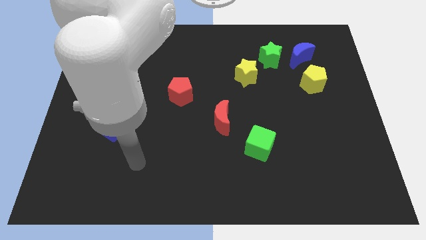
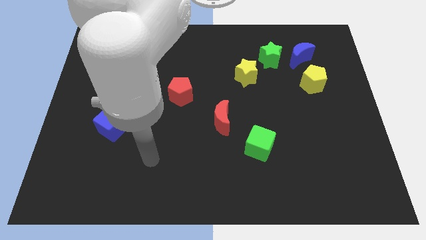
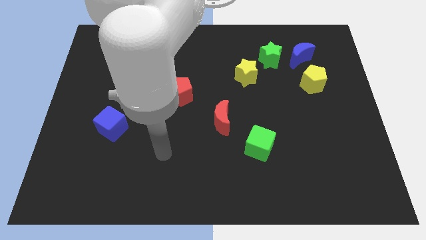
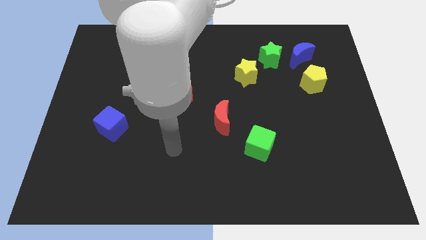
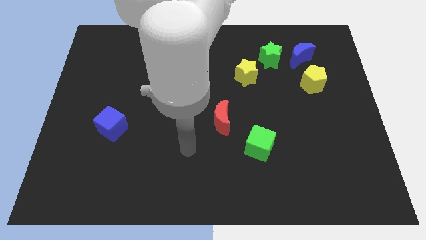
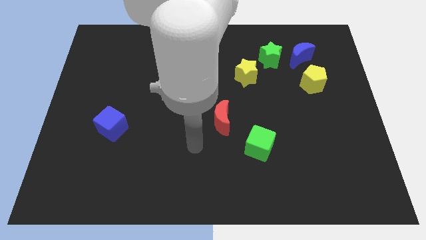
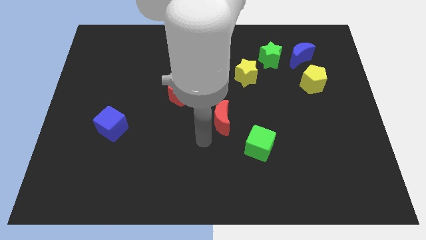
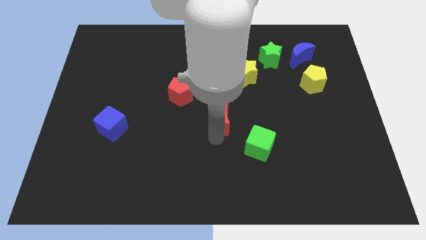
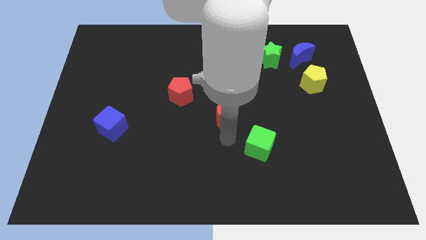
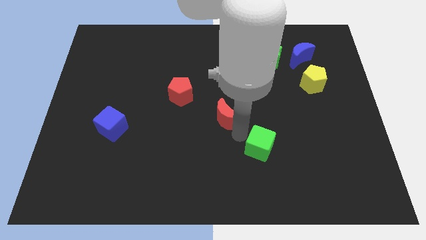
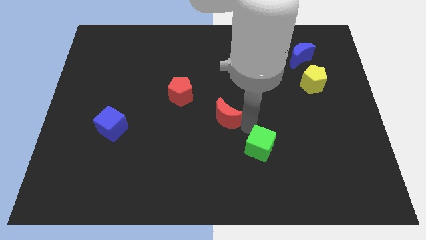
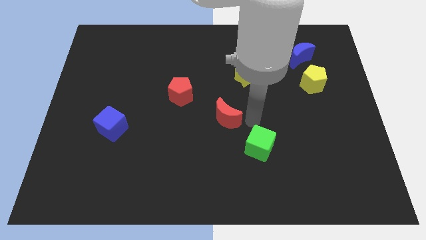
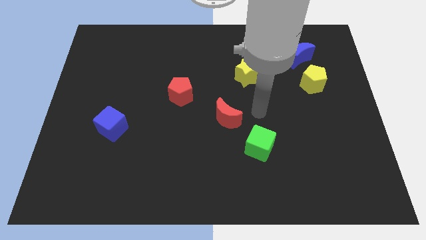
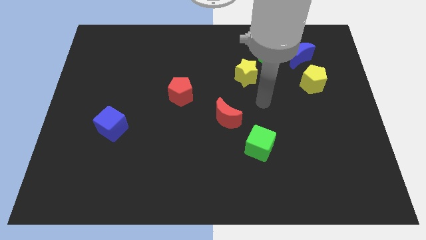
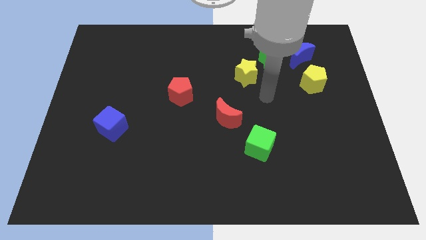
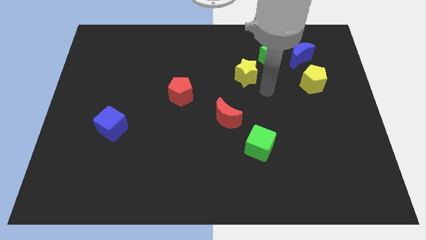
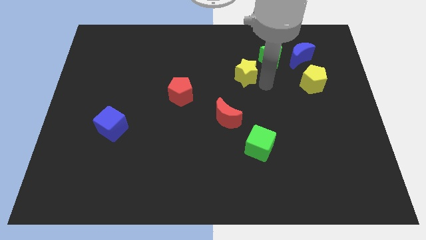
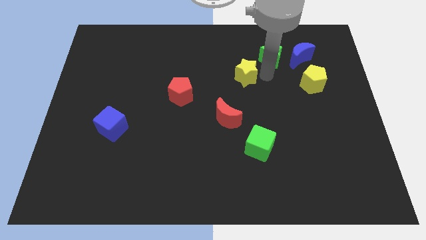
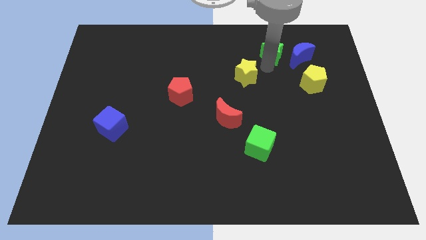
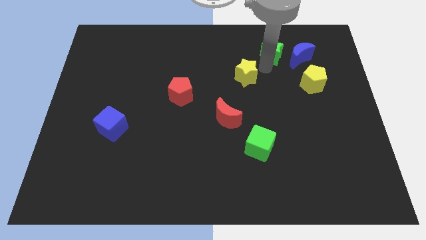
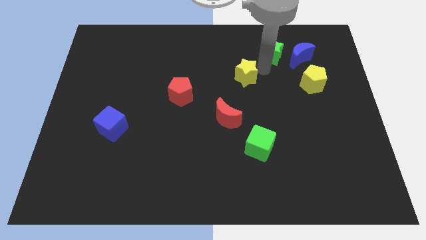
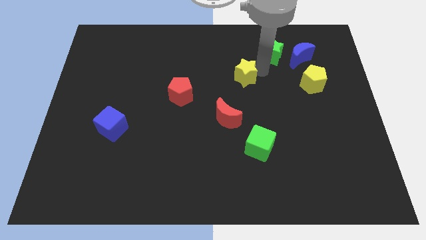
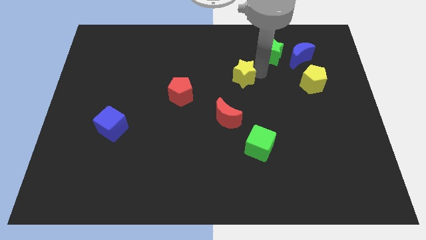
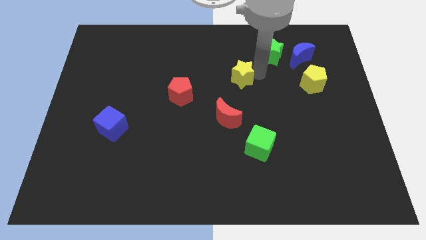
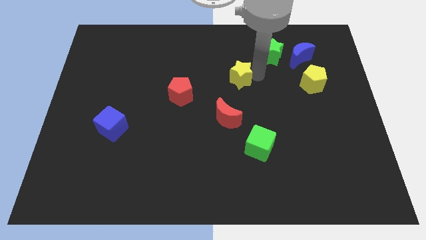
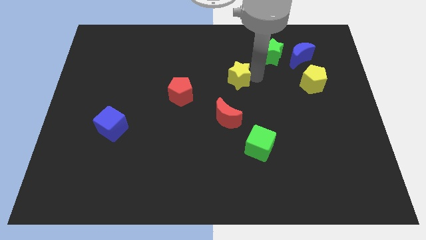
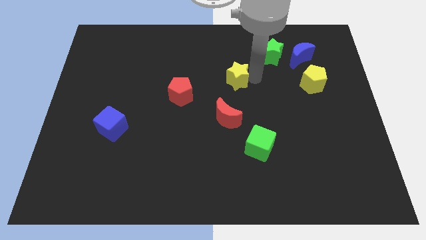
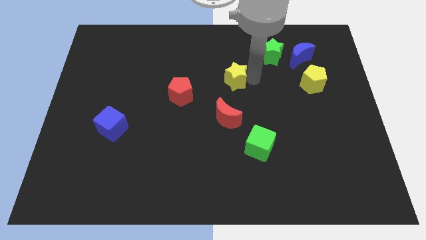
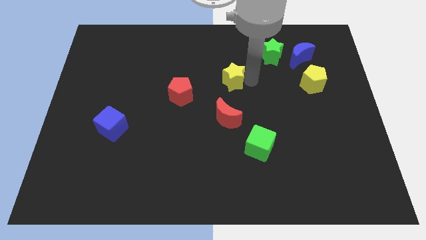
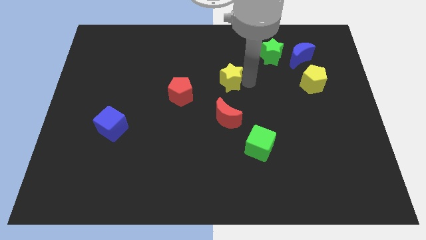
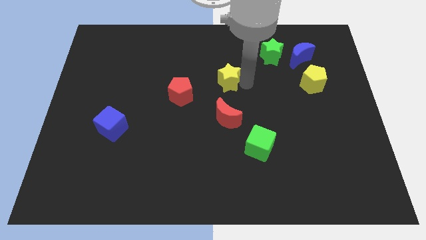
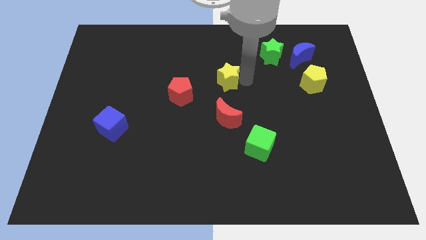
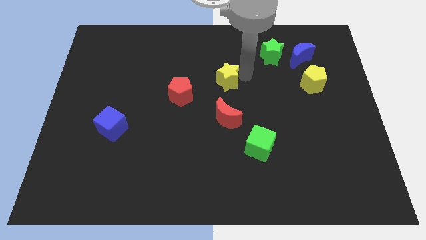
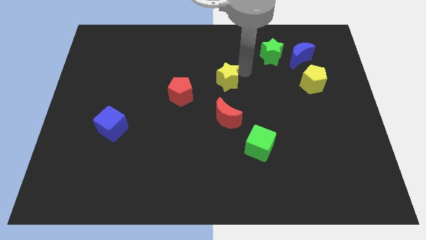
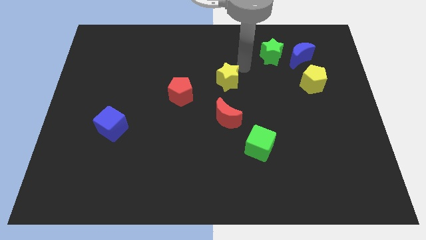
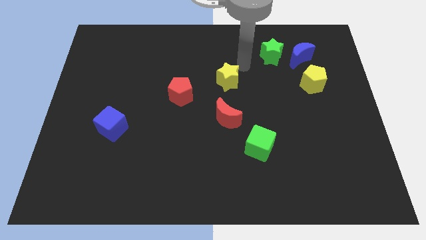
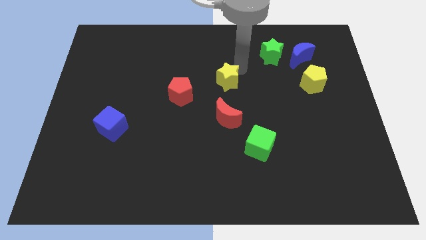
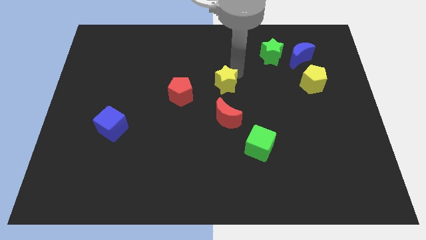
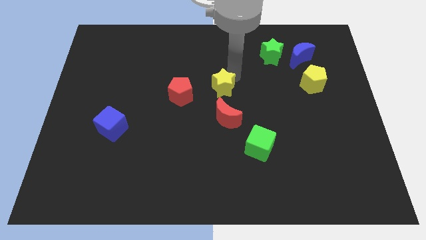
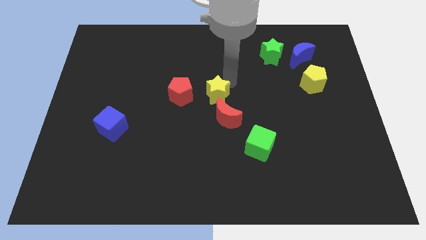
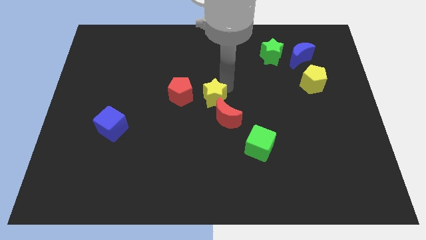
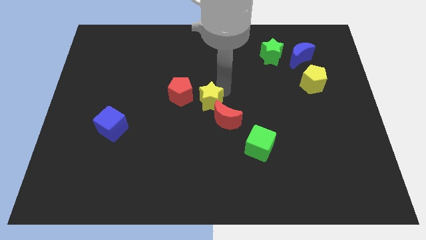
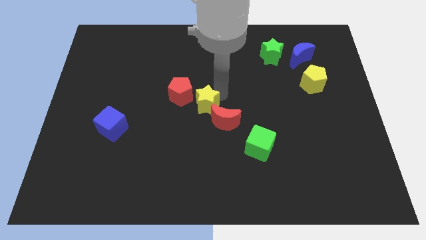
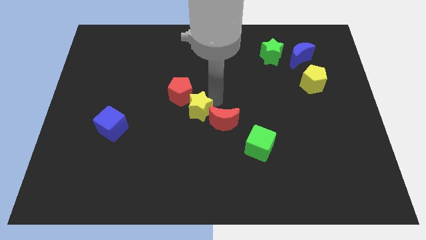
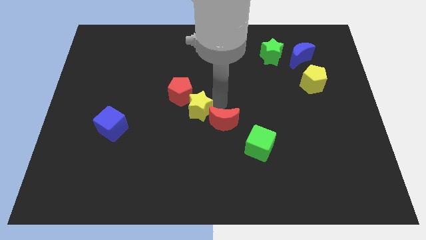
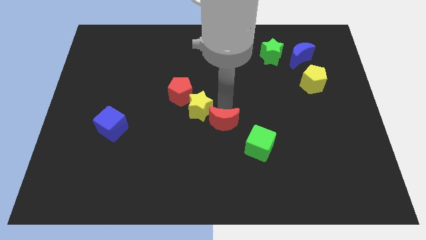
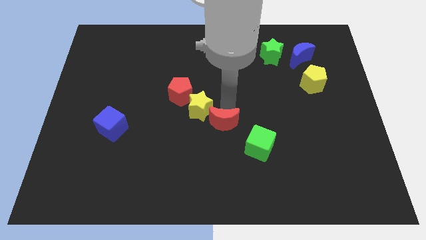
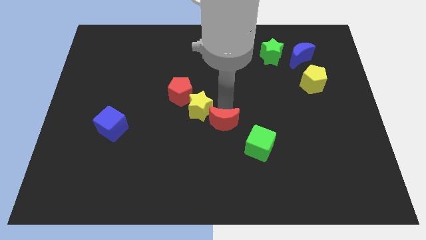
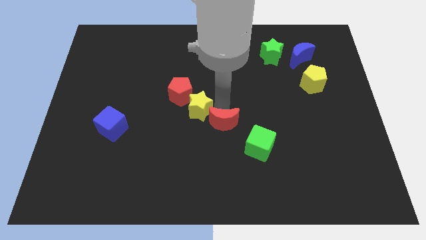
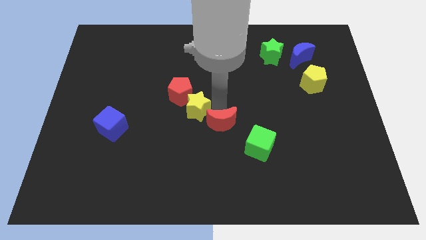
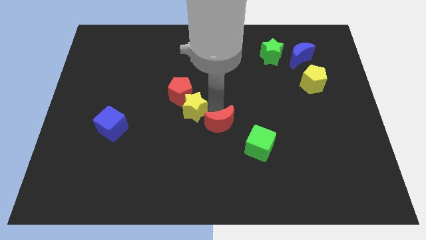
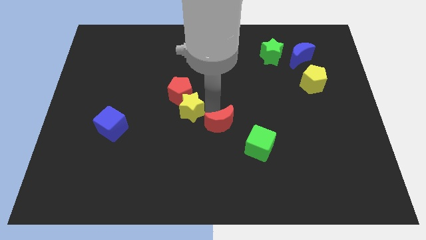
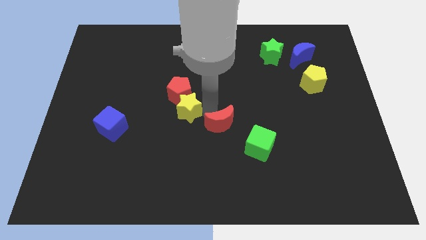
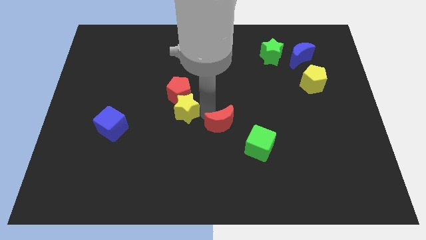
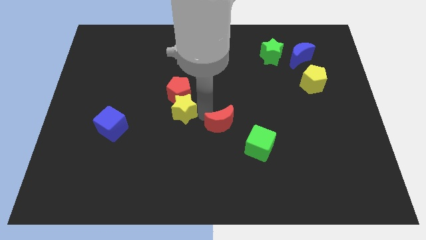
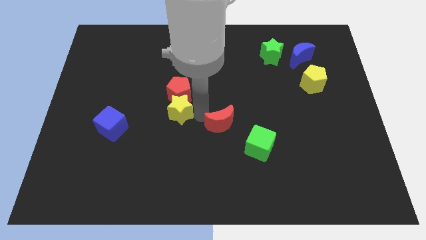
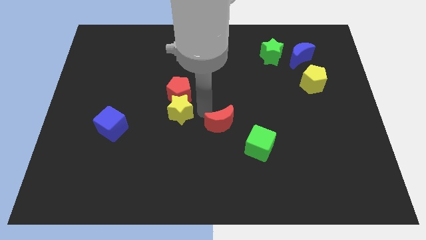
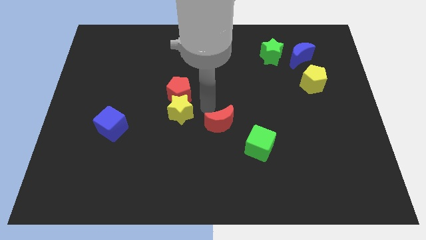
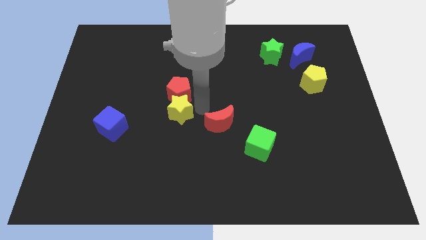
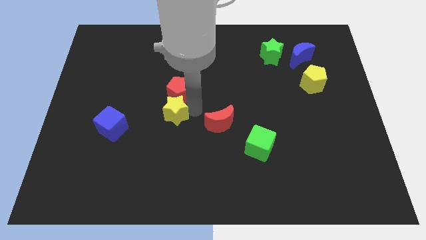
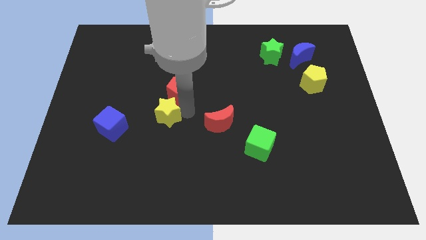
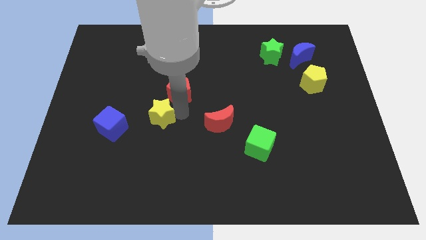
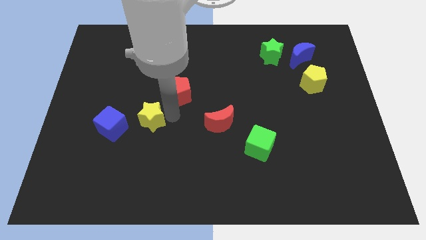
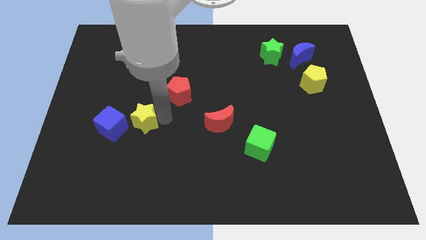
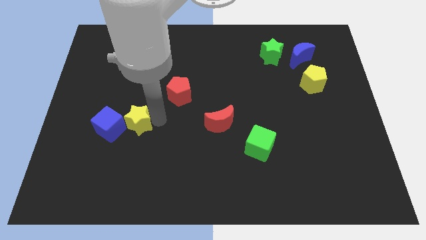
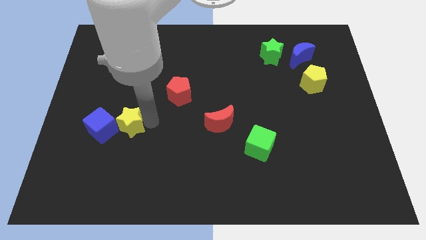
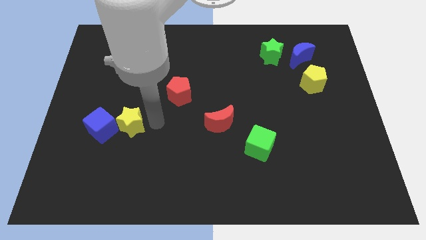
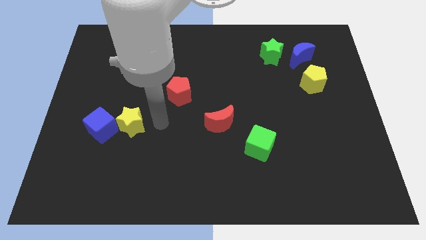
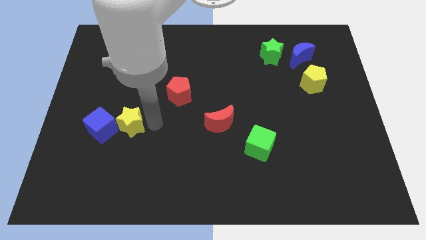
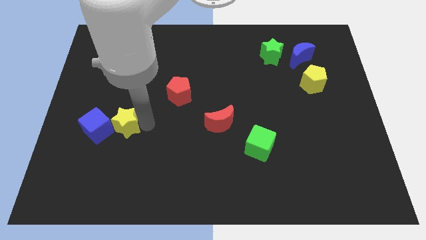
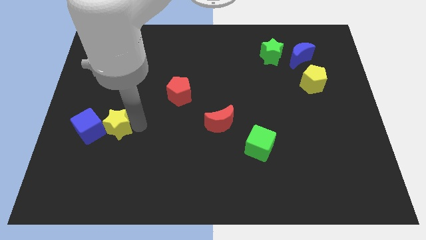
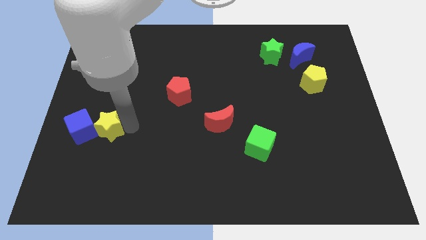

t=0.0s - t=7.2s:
put the yellow star close to the blue cube
